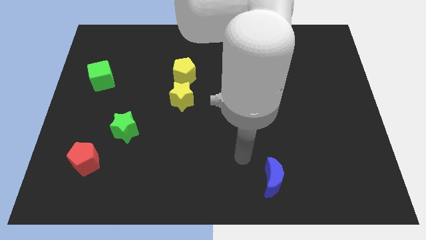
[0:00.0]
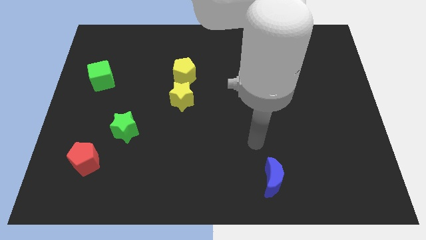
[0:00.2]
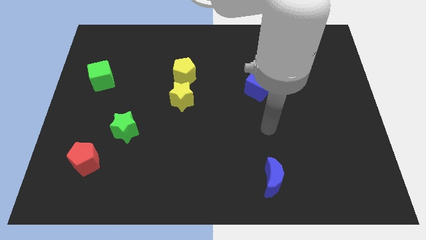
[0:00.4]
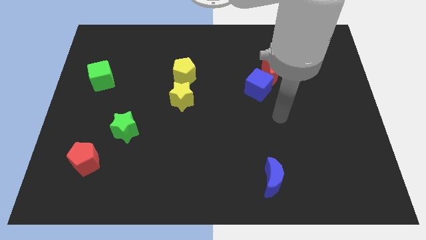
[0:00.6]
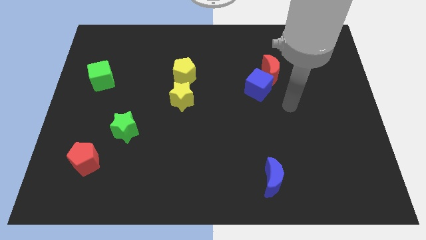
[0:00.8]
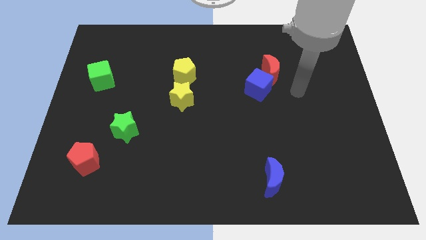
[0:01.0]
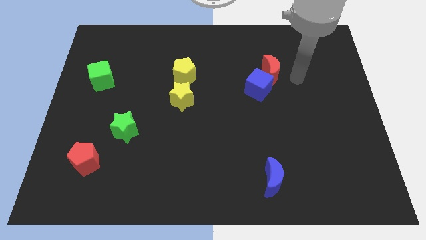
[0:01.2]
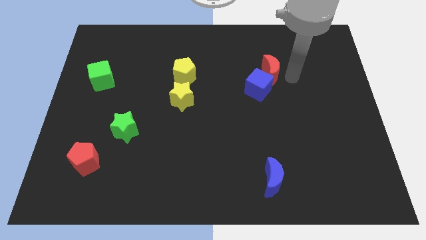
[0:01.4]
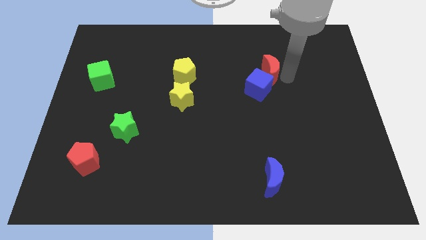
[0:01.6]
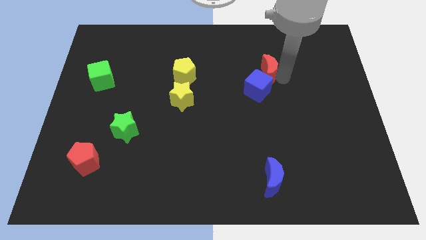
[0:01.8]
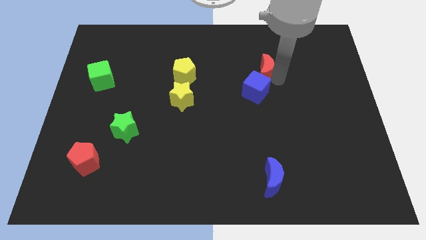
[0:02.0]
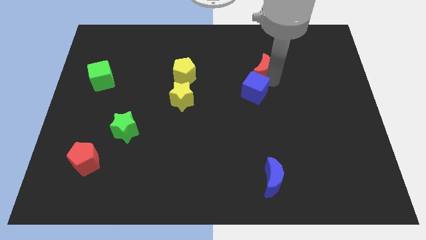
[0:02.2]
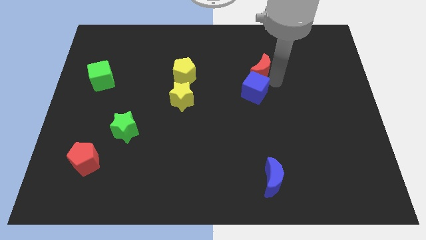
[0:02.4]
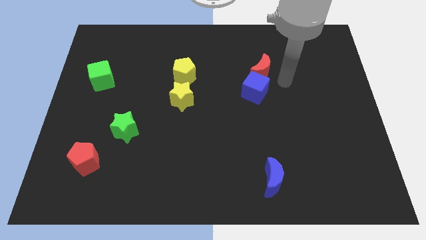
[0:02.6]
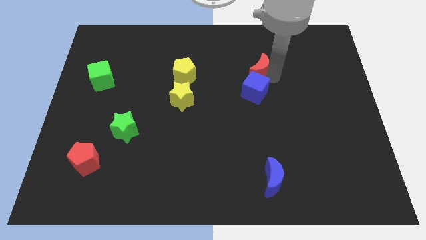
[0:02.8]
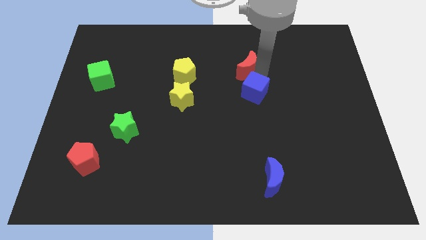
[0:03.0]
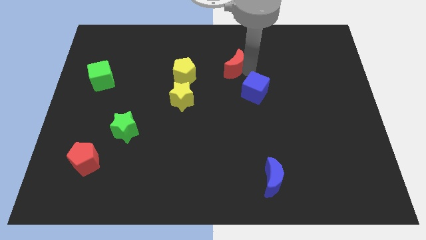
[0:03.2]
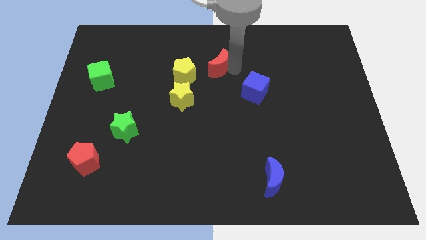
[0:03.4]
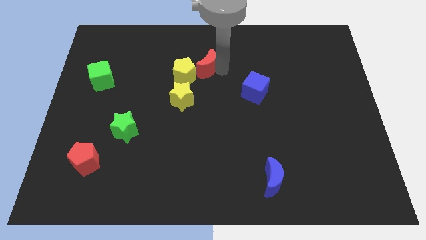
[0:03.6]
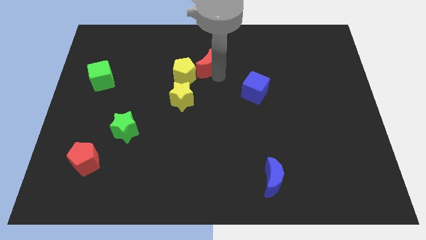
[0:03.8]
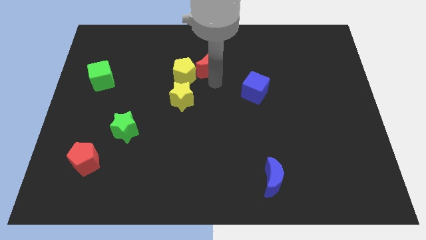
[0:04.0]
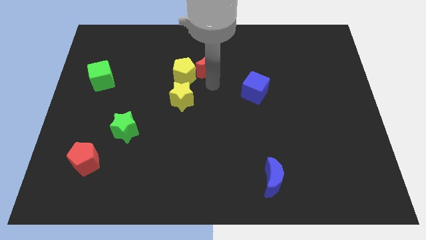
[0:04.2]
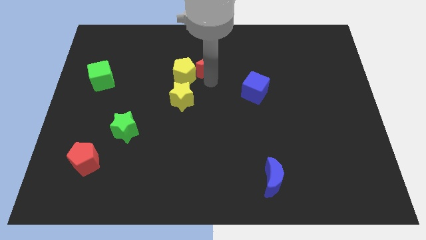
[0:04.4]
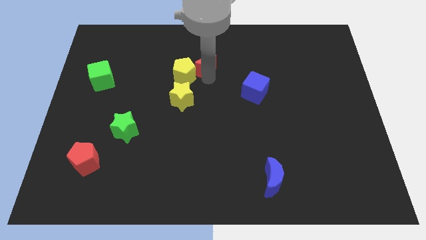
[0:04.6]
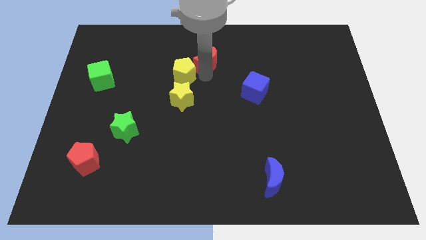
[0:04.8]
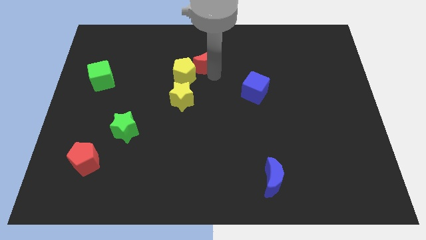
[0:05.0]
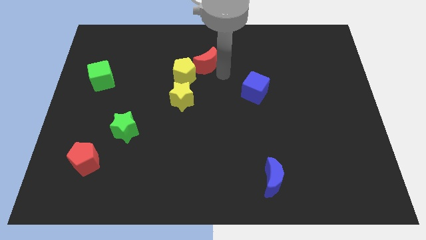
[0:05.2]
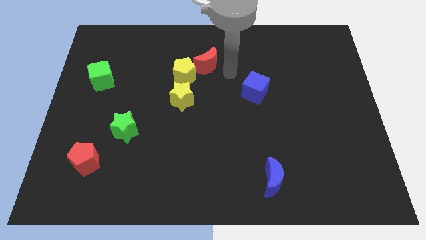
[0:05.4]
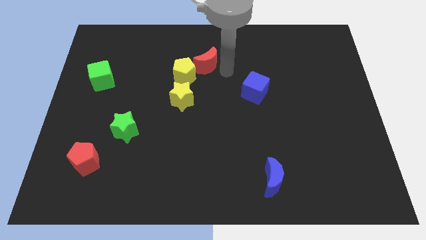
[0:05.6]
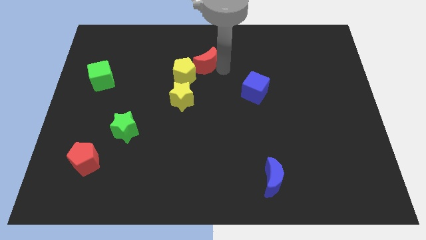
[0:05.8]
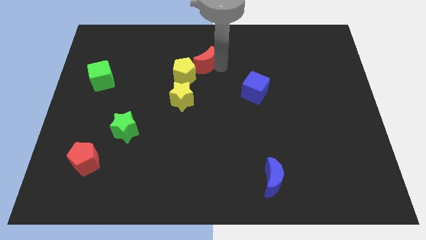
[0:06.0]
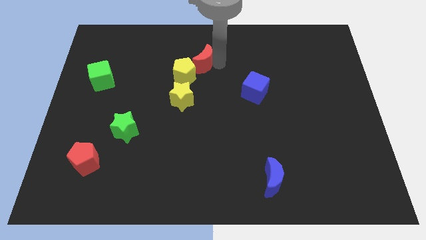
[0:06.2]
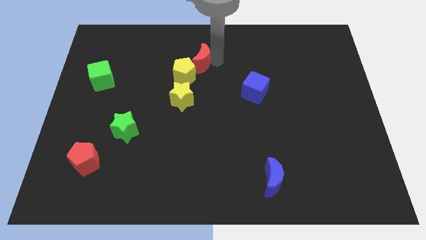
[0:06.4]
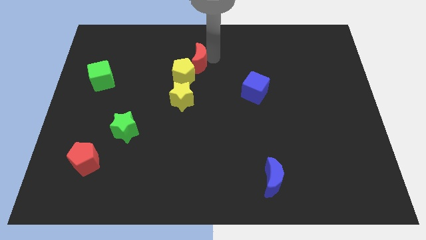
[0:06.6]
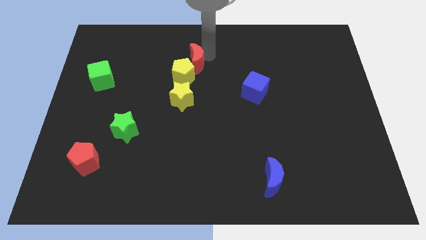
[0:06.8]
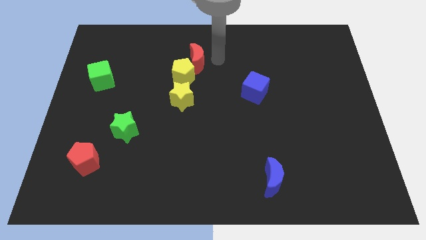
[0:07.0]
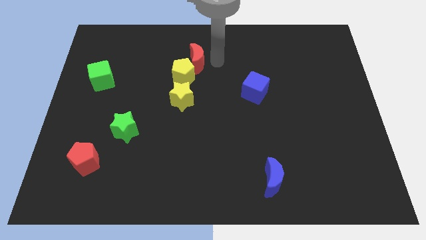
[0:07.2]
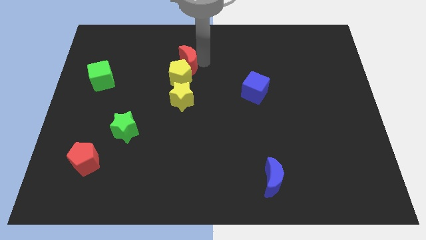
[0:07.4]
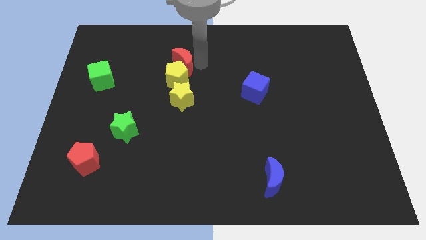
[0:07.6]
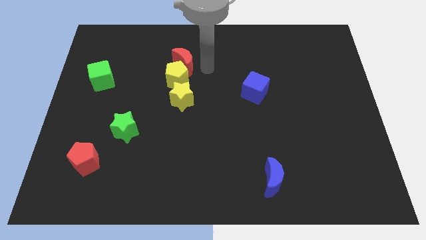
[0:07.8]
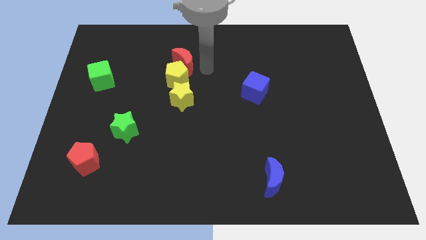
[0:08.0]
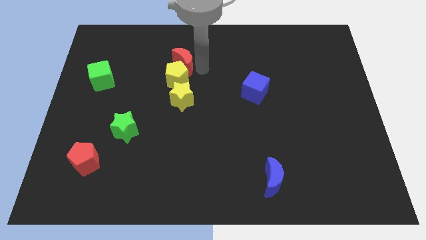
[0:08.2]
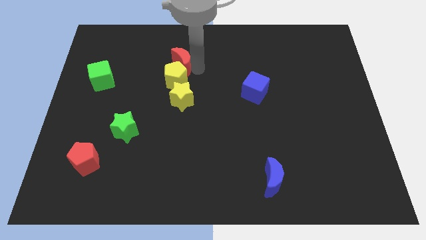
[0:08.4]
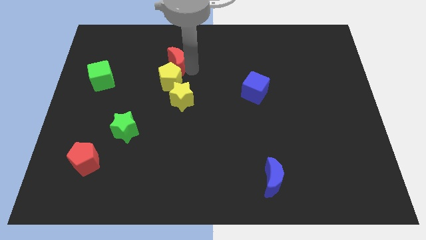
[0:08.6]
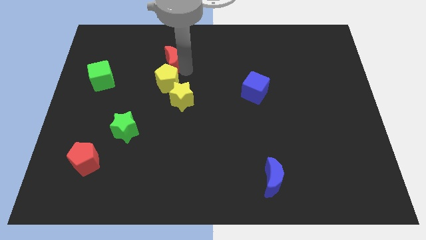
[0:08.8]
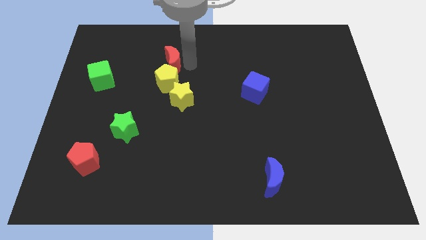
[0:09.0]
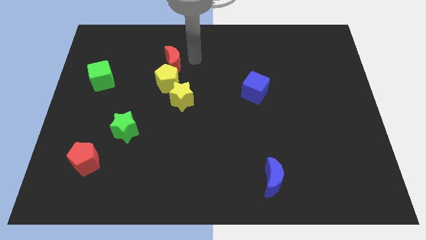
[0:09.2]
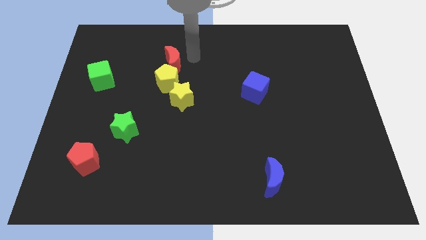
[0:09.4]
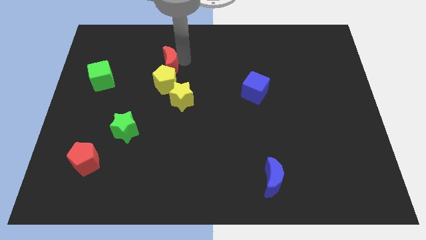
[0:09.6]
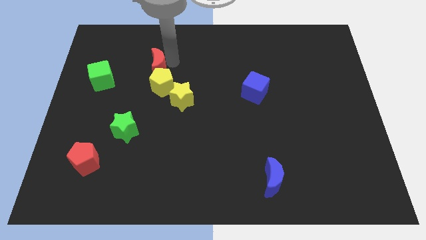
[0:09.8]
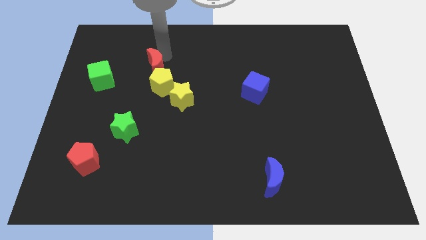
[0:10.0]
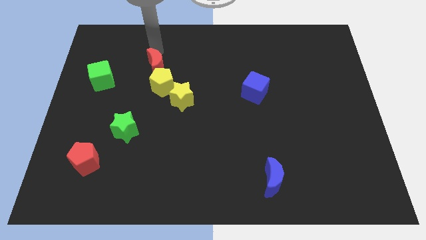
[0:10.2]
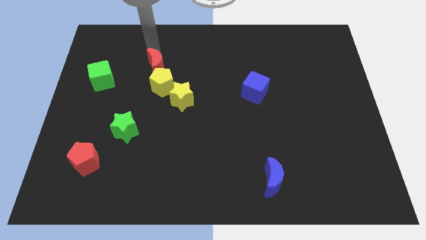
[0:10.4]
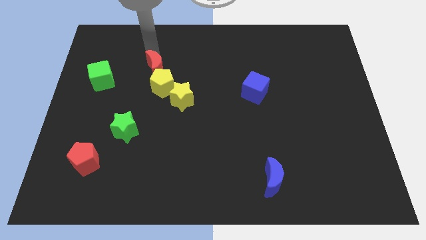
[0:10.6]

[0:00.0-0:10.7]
push the red moon diagonally up and to the left of the yellow star

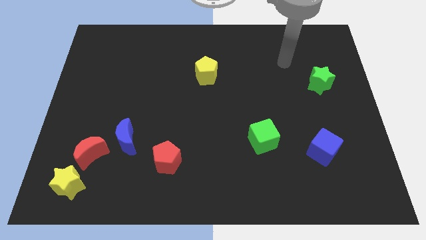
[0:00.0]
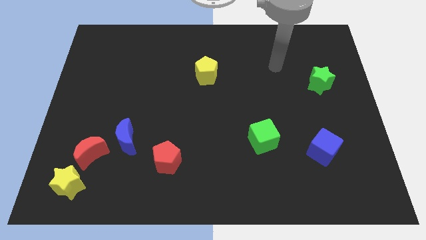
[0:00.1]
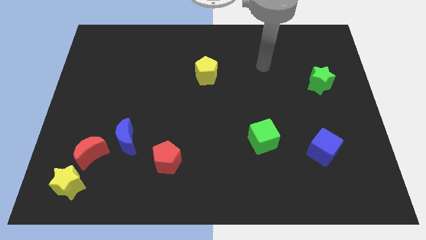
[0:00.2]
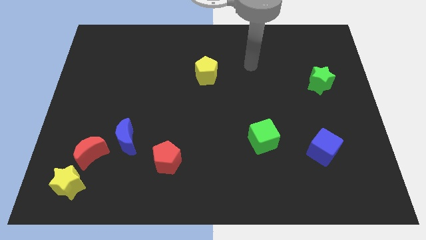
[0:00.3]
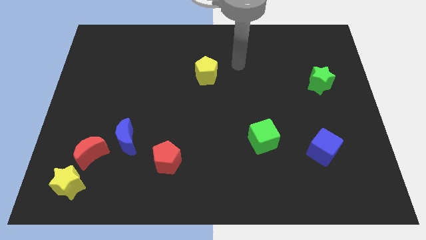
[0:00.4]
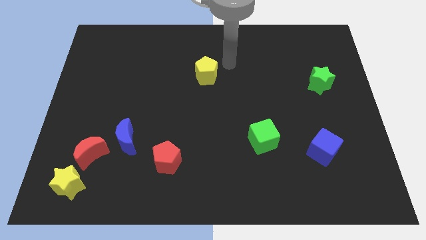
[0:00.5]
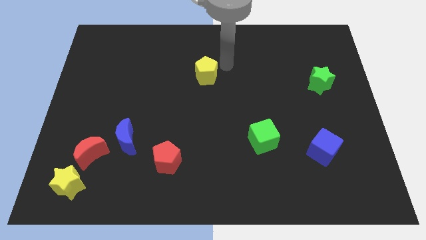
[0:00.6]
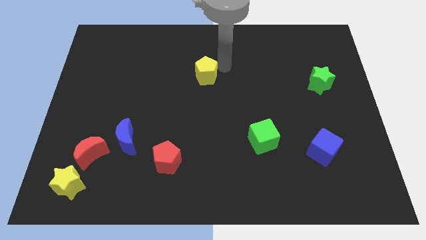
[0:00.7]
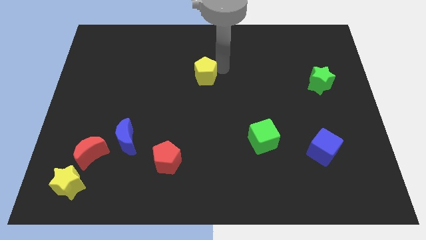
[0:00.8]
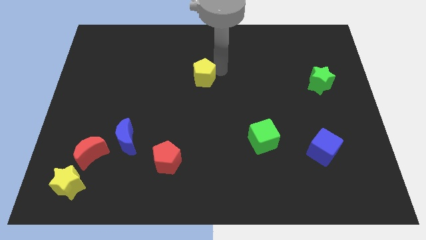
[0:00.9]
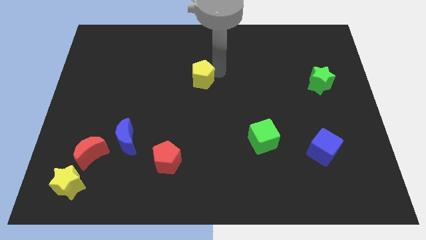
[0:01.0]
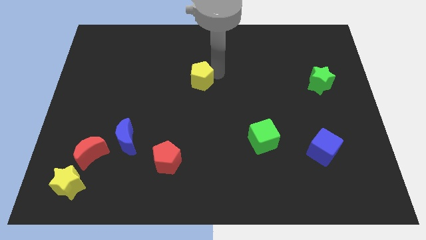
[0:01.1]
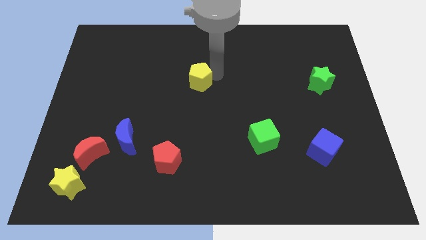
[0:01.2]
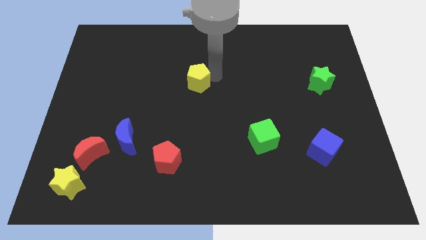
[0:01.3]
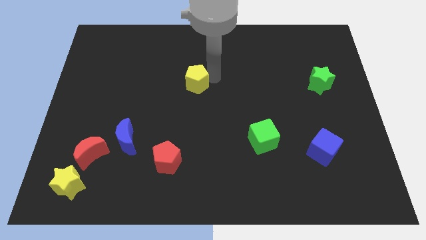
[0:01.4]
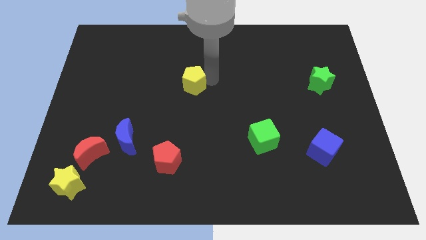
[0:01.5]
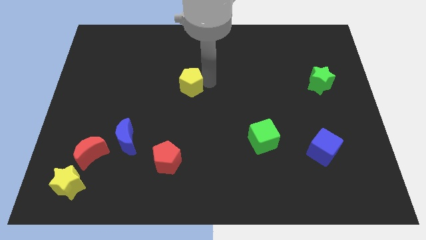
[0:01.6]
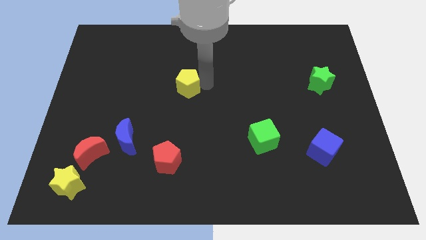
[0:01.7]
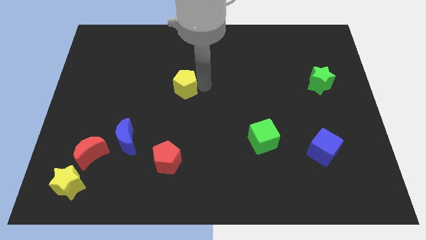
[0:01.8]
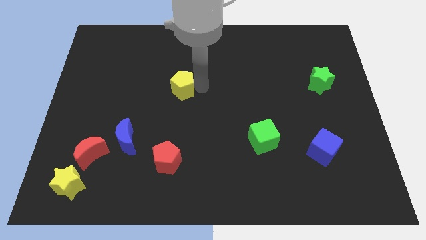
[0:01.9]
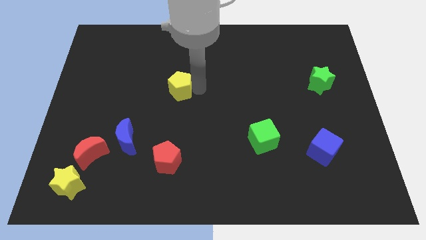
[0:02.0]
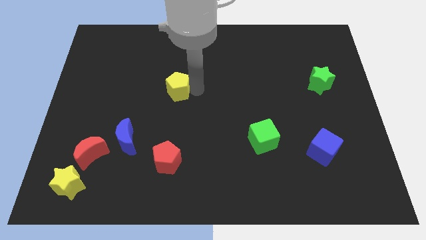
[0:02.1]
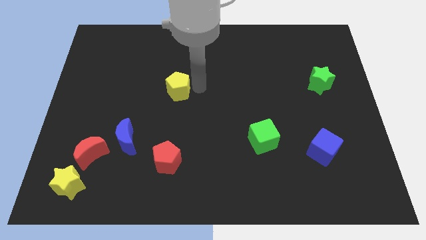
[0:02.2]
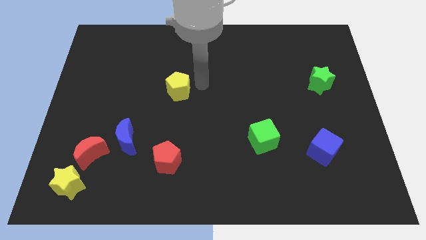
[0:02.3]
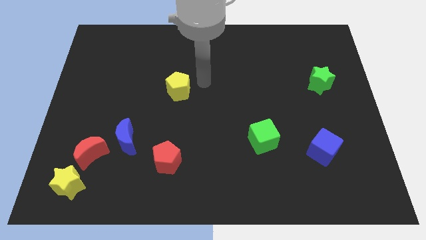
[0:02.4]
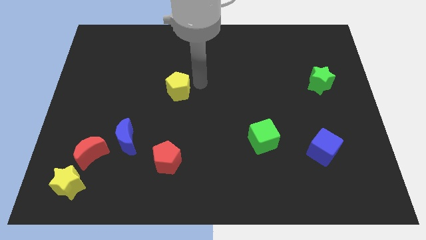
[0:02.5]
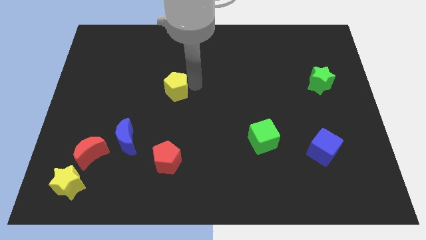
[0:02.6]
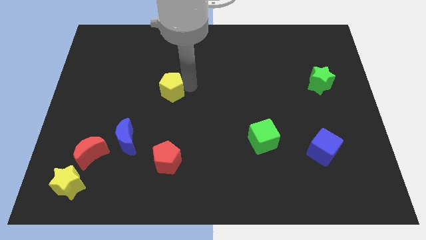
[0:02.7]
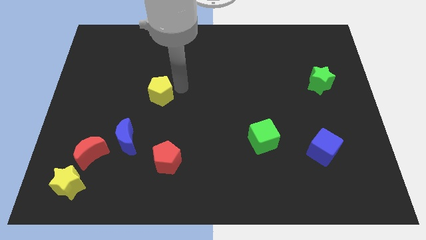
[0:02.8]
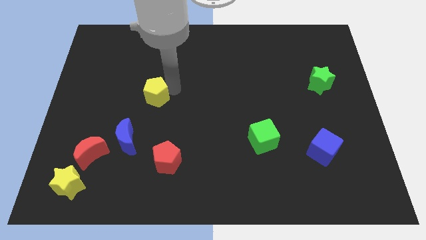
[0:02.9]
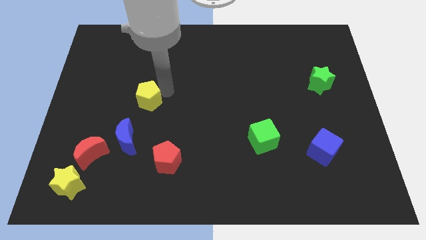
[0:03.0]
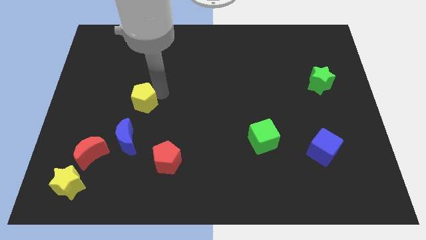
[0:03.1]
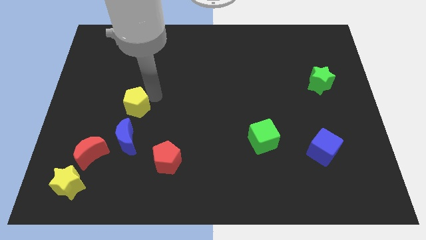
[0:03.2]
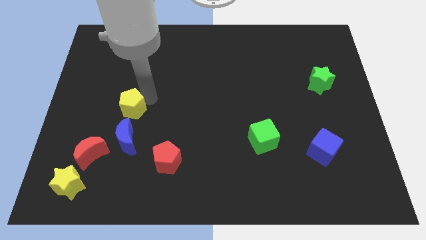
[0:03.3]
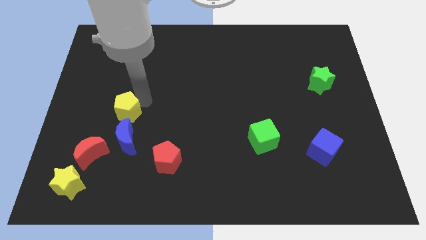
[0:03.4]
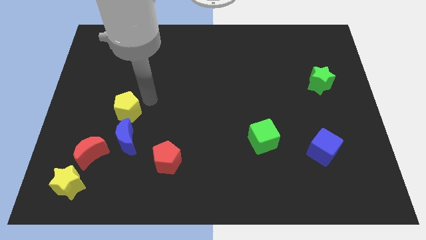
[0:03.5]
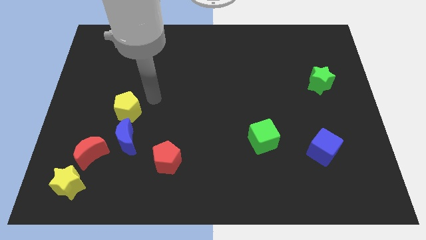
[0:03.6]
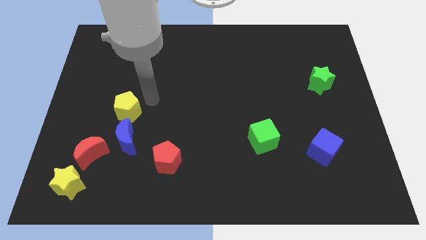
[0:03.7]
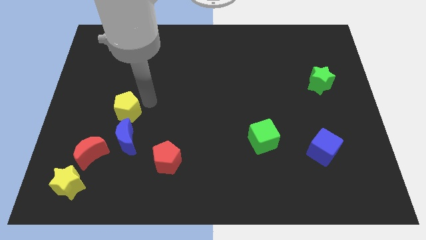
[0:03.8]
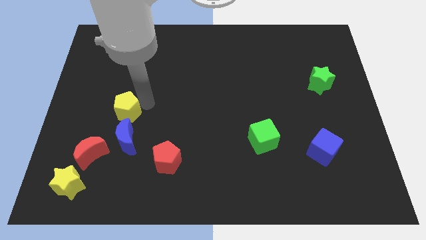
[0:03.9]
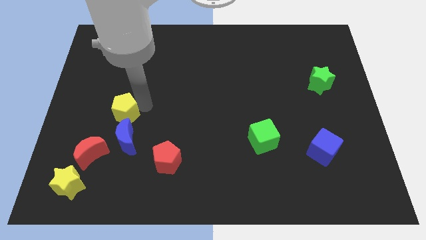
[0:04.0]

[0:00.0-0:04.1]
move the yellow pentagon to the top left of the blue moon
